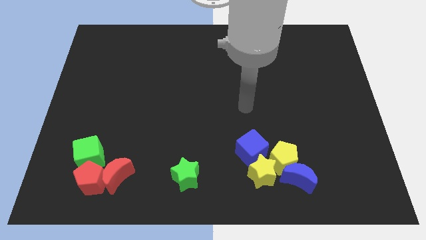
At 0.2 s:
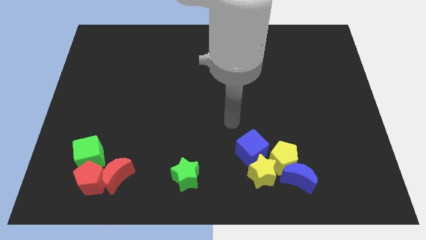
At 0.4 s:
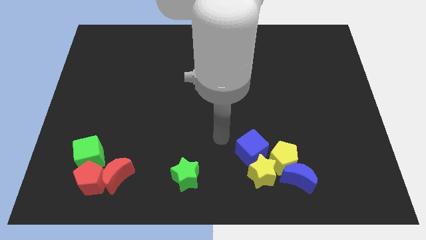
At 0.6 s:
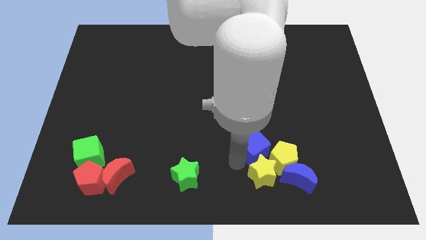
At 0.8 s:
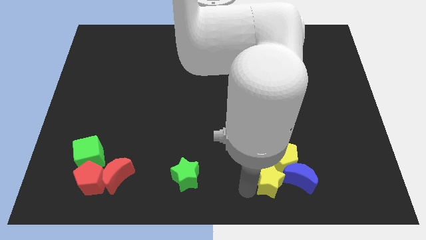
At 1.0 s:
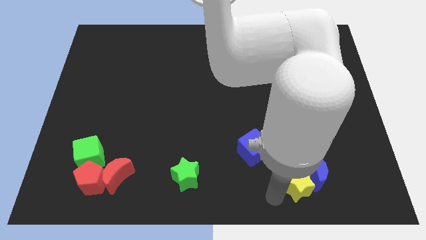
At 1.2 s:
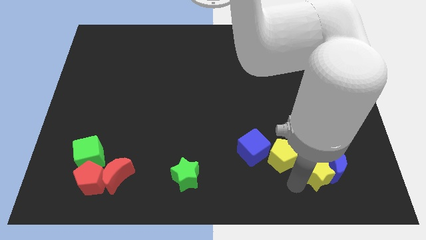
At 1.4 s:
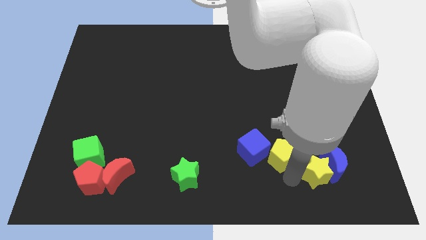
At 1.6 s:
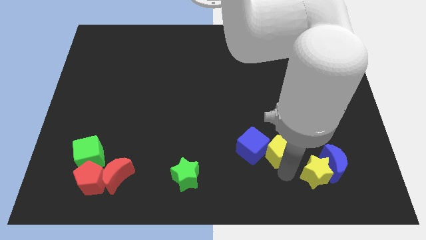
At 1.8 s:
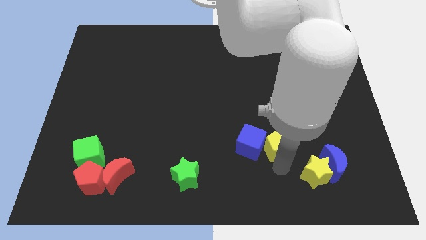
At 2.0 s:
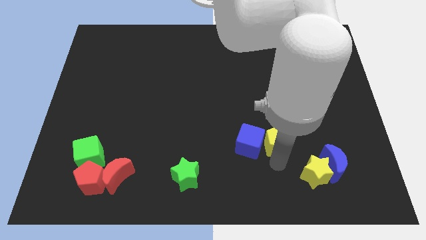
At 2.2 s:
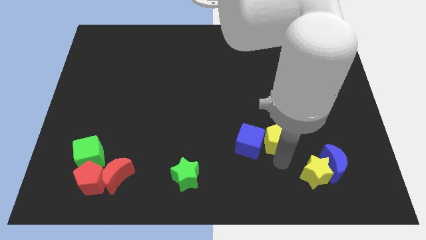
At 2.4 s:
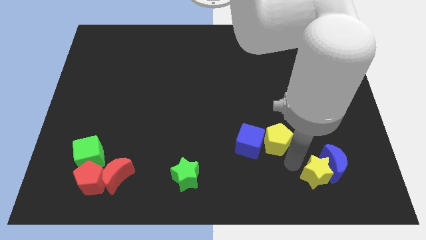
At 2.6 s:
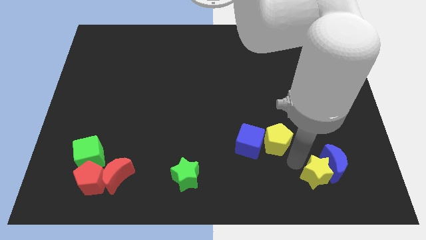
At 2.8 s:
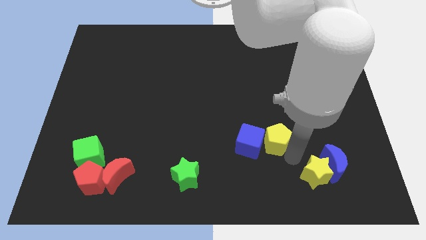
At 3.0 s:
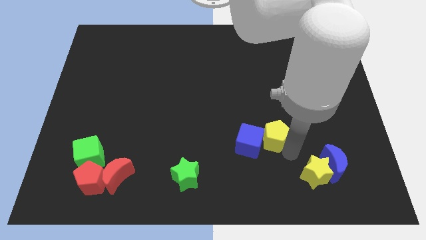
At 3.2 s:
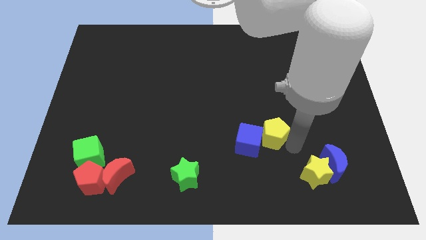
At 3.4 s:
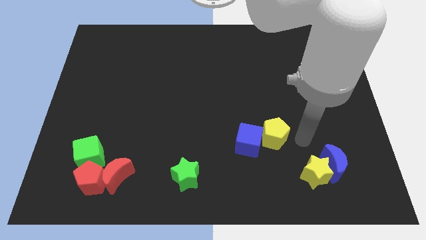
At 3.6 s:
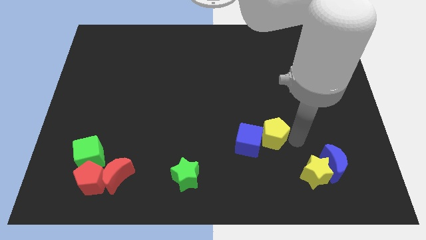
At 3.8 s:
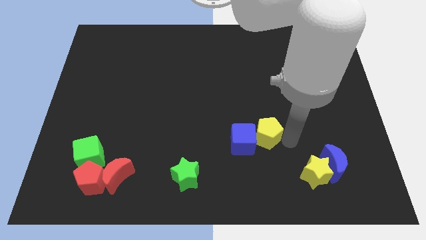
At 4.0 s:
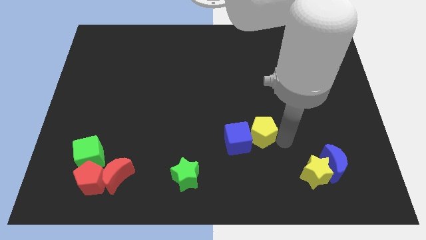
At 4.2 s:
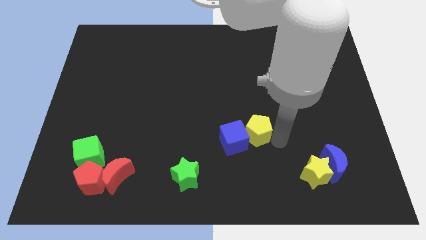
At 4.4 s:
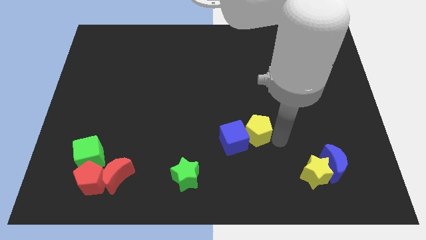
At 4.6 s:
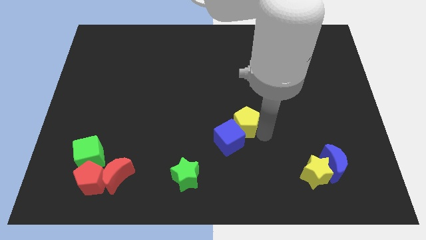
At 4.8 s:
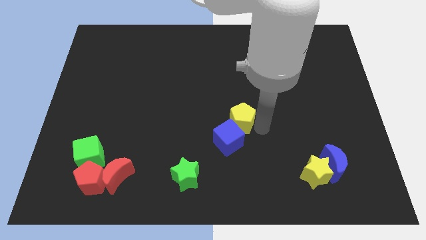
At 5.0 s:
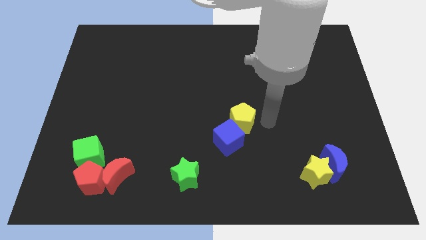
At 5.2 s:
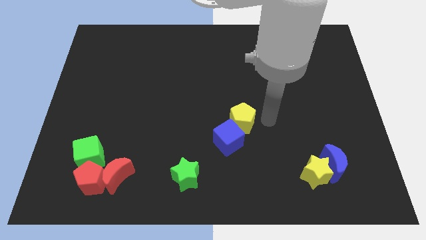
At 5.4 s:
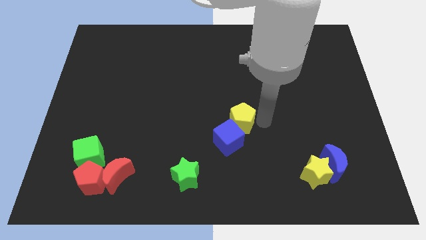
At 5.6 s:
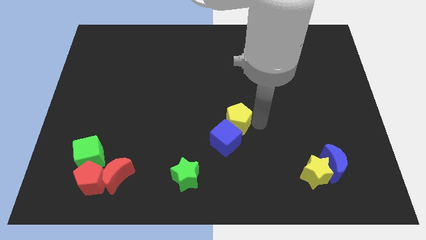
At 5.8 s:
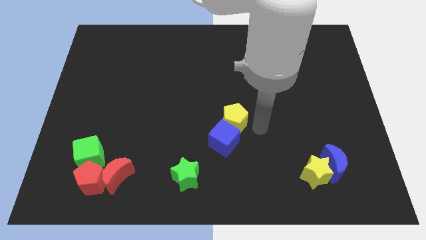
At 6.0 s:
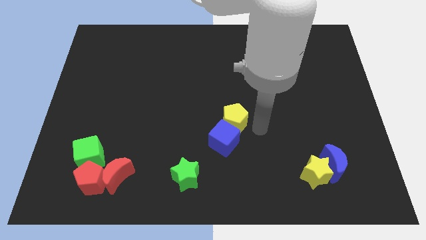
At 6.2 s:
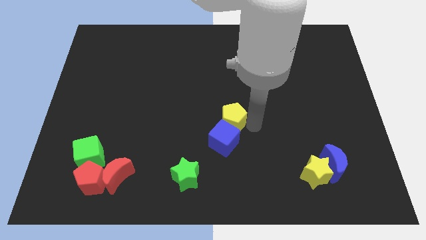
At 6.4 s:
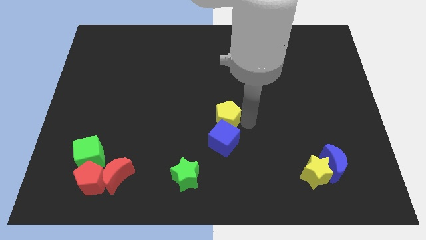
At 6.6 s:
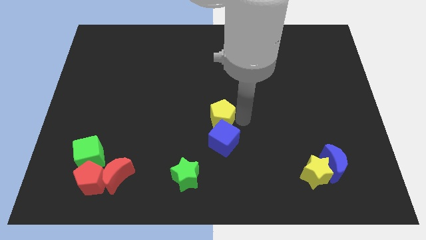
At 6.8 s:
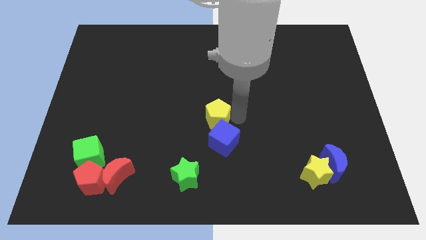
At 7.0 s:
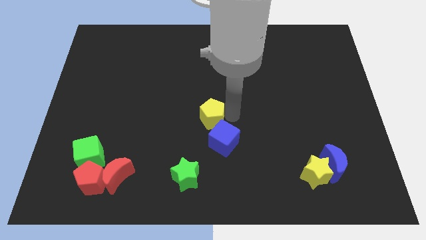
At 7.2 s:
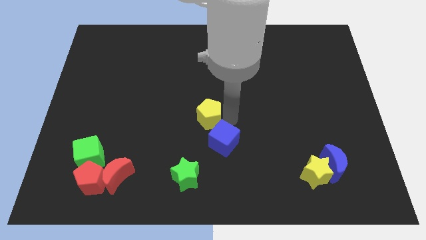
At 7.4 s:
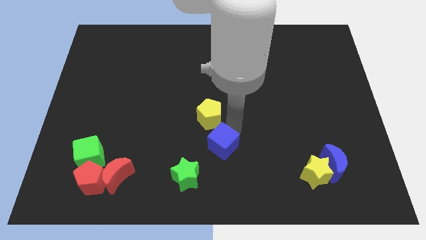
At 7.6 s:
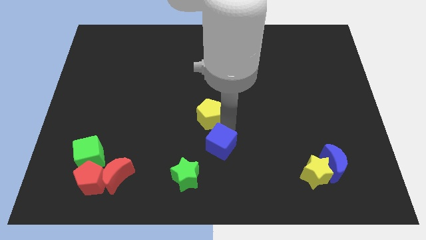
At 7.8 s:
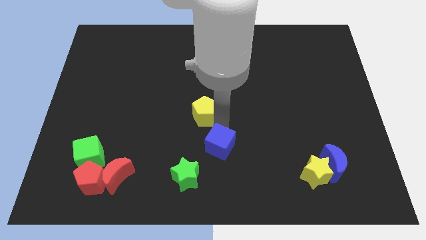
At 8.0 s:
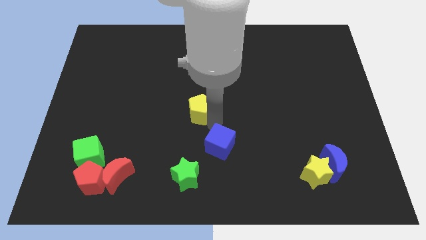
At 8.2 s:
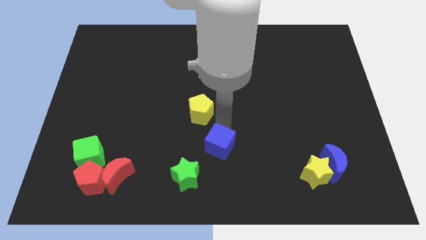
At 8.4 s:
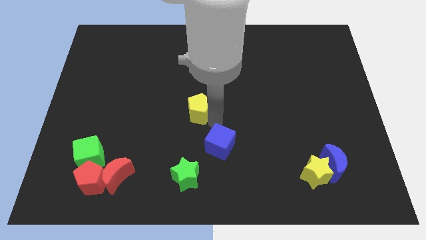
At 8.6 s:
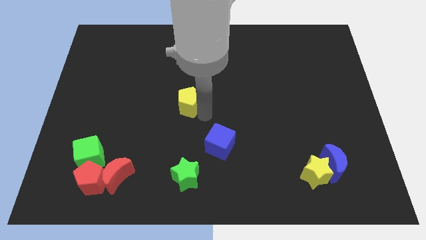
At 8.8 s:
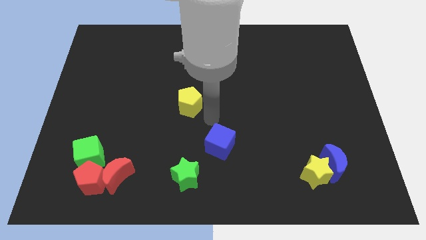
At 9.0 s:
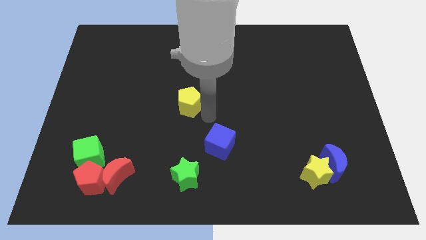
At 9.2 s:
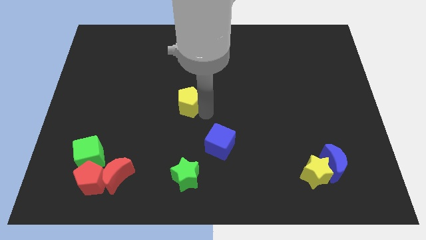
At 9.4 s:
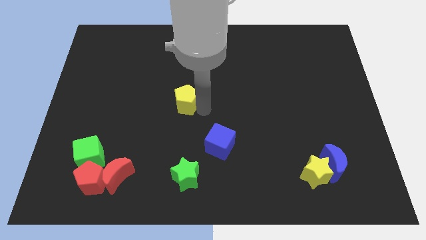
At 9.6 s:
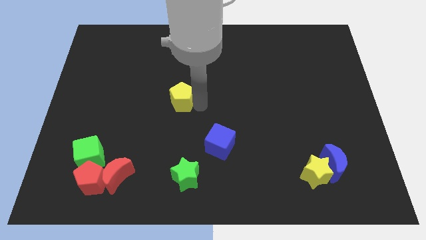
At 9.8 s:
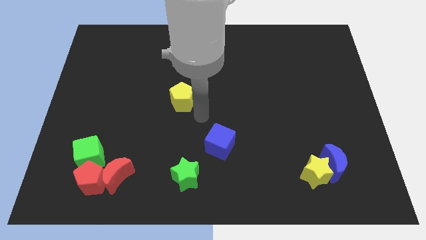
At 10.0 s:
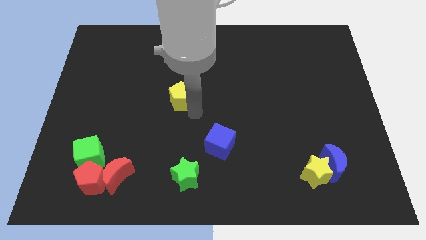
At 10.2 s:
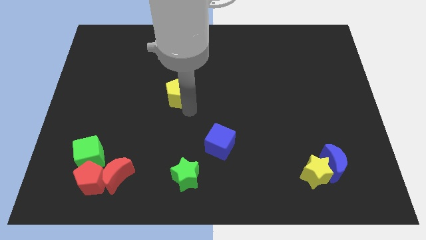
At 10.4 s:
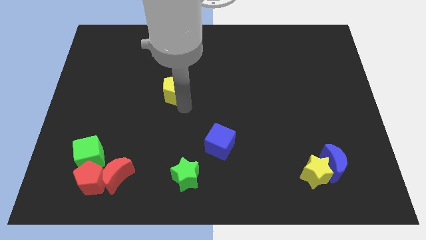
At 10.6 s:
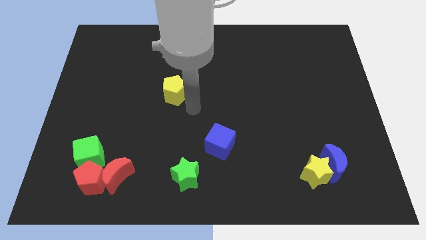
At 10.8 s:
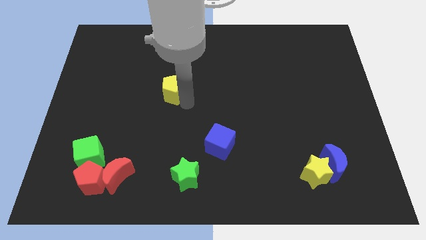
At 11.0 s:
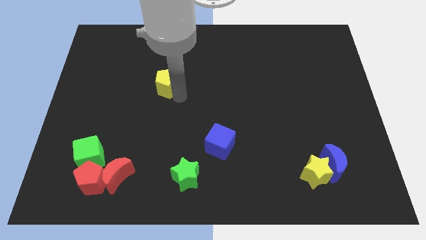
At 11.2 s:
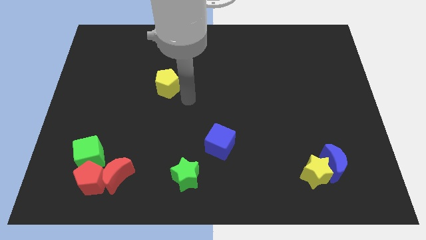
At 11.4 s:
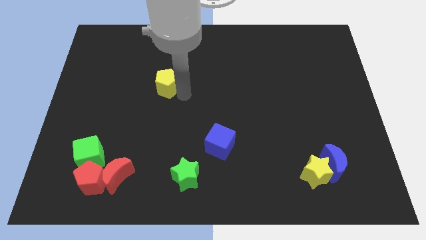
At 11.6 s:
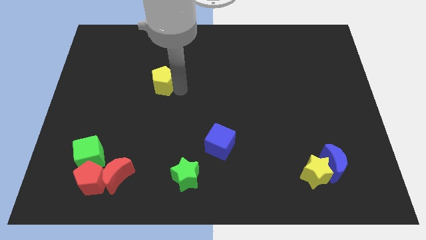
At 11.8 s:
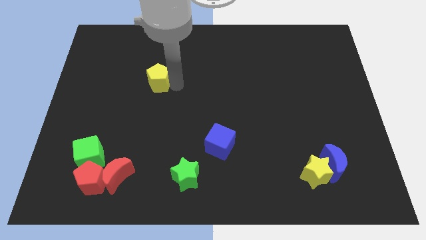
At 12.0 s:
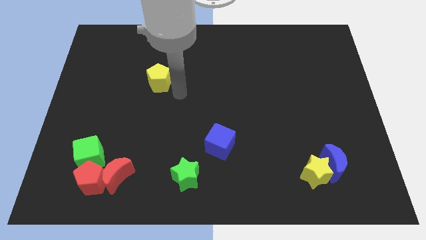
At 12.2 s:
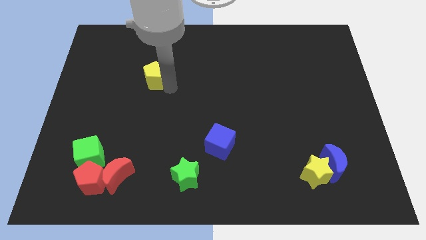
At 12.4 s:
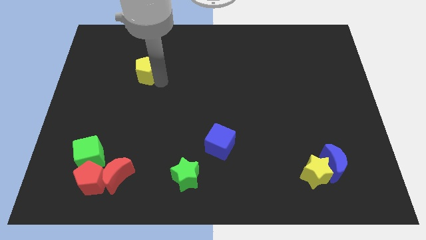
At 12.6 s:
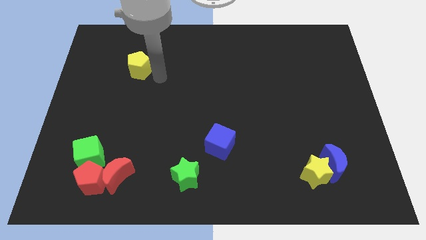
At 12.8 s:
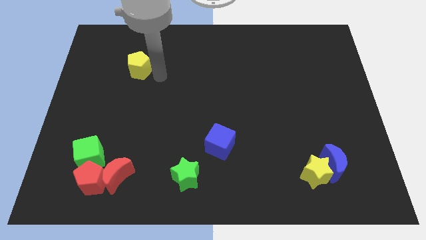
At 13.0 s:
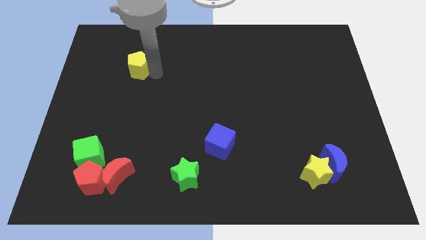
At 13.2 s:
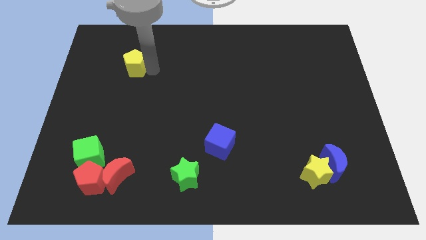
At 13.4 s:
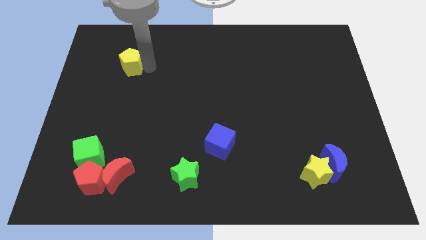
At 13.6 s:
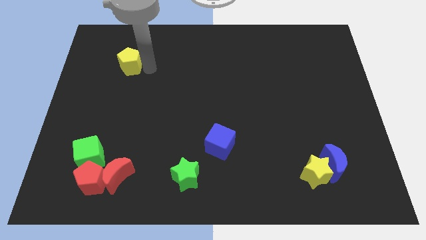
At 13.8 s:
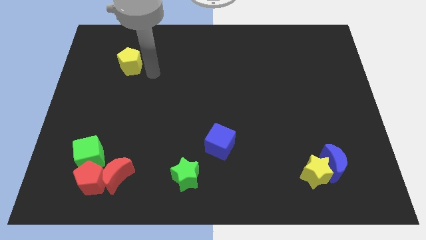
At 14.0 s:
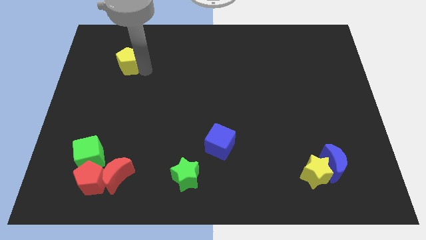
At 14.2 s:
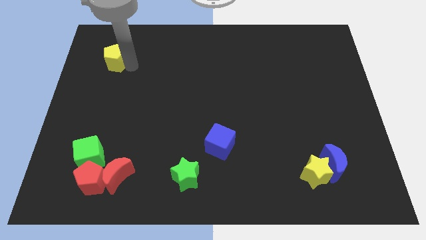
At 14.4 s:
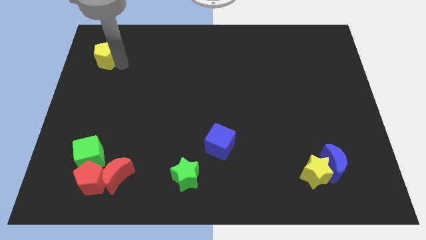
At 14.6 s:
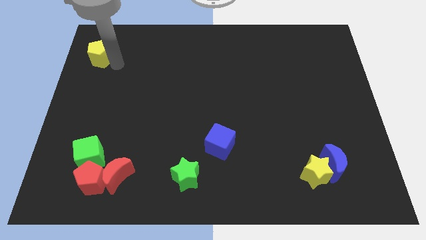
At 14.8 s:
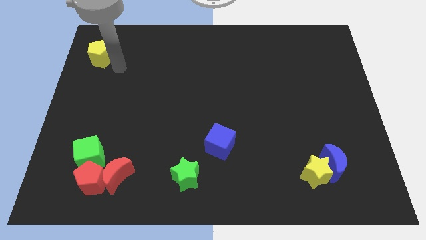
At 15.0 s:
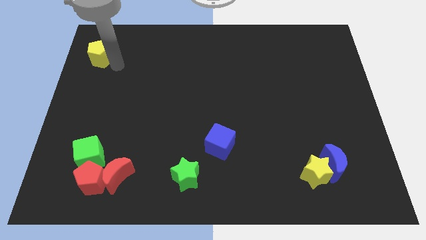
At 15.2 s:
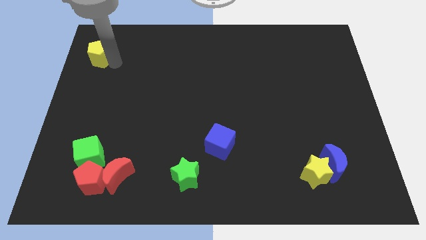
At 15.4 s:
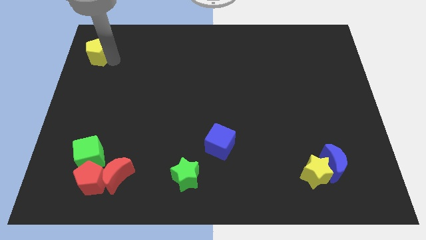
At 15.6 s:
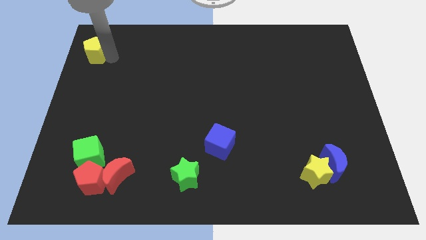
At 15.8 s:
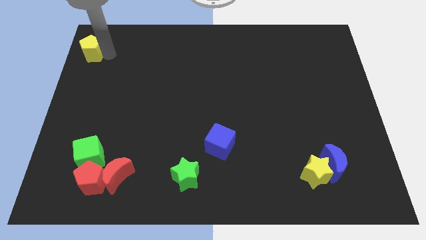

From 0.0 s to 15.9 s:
move the yellow pentagon to the top left corner
